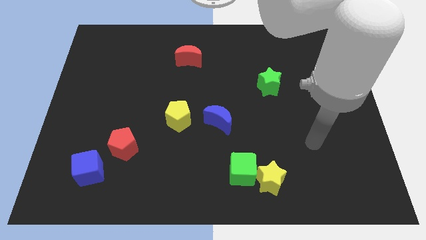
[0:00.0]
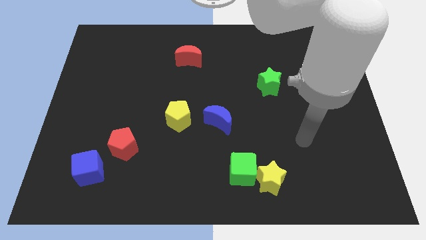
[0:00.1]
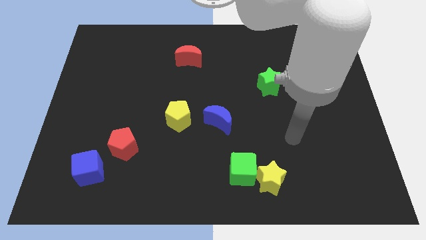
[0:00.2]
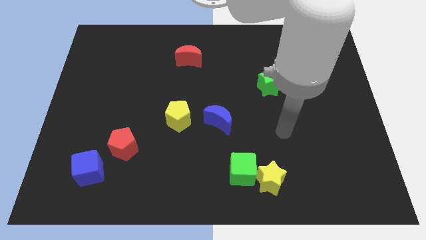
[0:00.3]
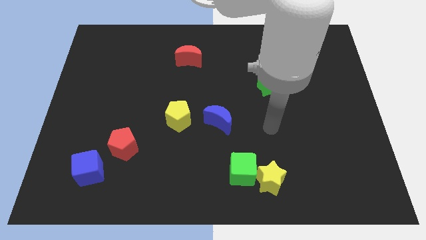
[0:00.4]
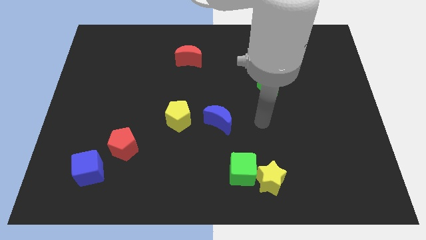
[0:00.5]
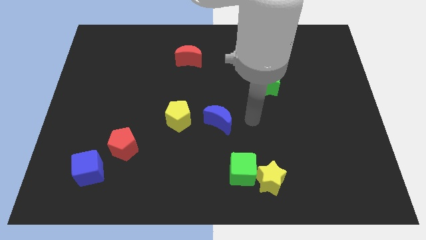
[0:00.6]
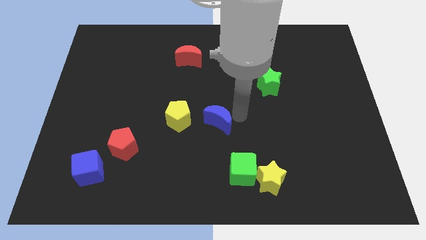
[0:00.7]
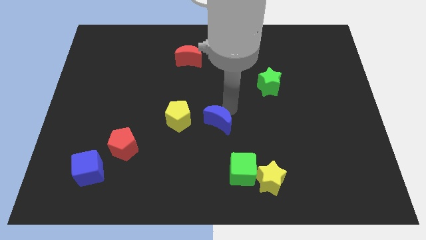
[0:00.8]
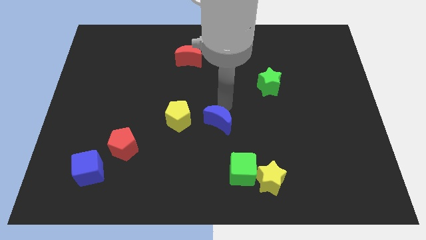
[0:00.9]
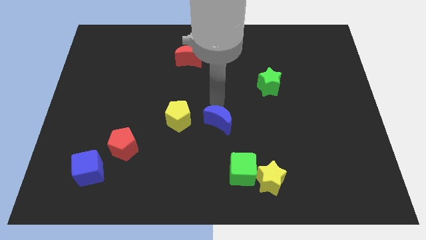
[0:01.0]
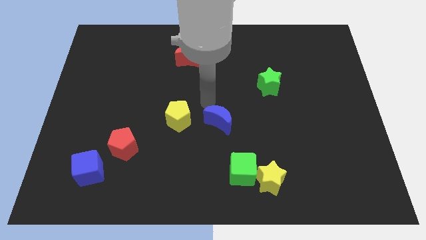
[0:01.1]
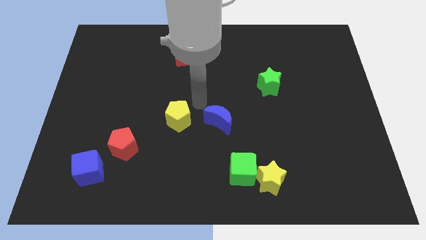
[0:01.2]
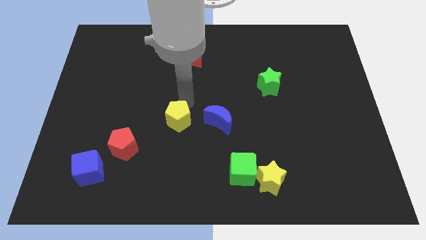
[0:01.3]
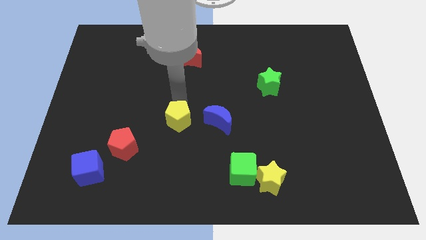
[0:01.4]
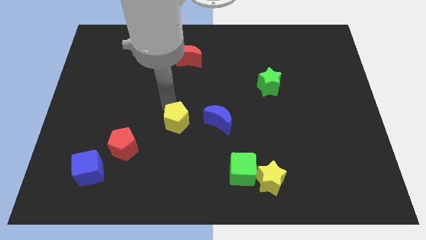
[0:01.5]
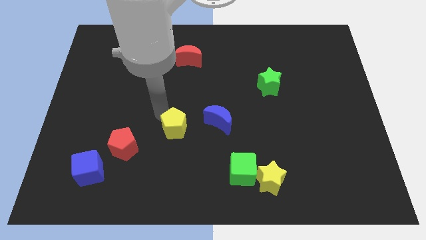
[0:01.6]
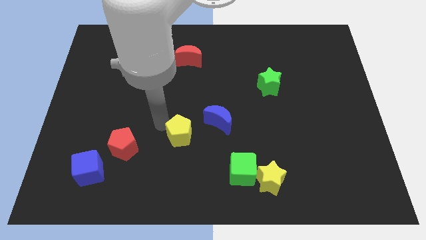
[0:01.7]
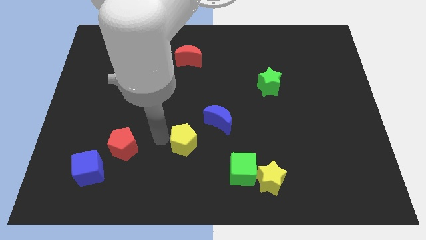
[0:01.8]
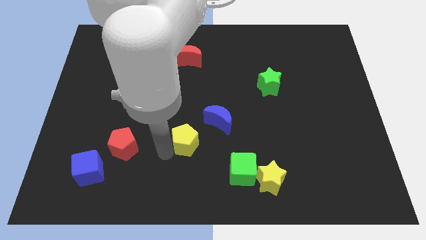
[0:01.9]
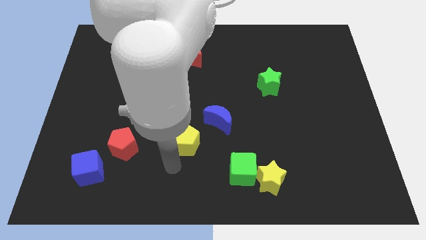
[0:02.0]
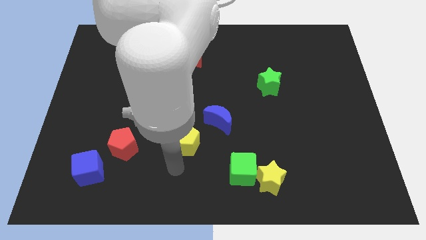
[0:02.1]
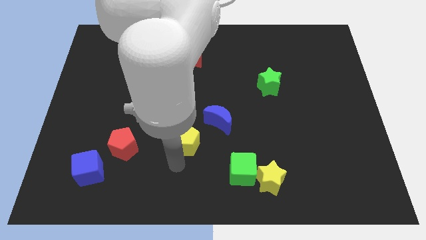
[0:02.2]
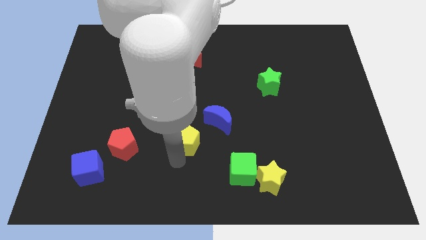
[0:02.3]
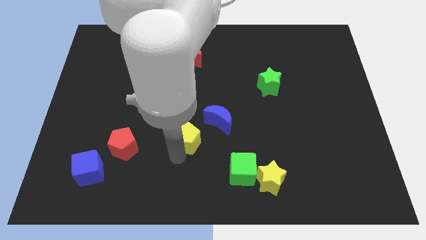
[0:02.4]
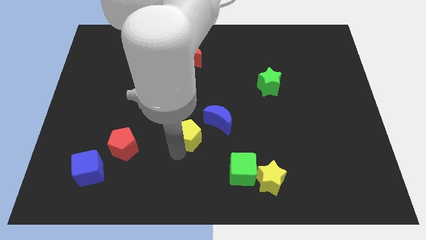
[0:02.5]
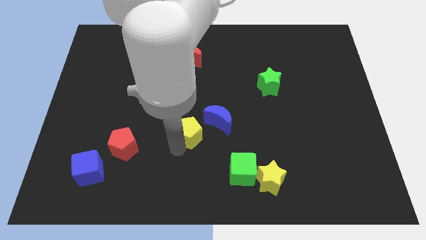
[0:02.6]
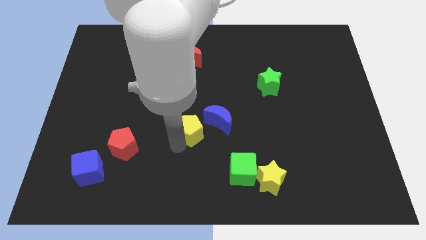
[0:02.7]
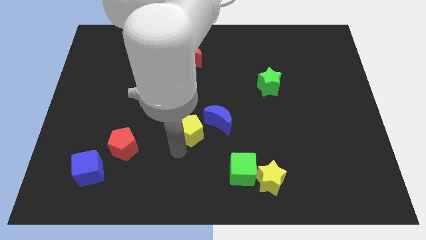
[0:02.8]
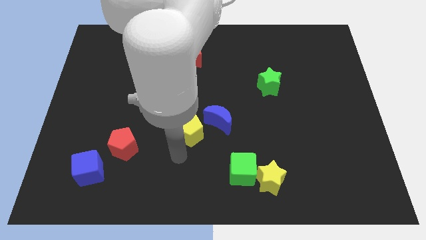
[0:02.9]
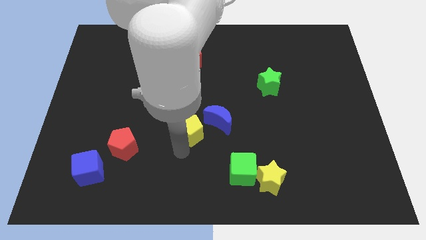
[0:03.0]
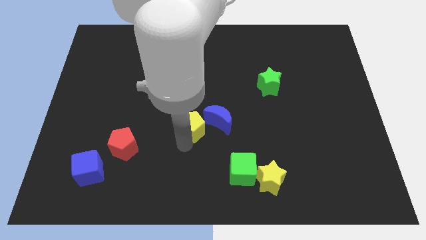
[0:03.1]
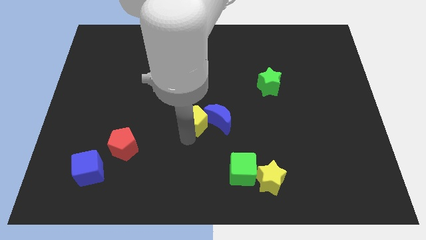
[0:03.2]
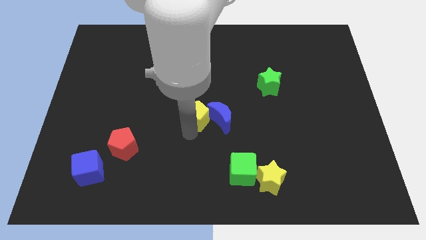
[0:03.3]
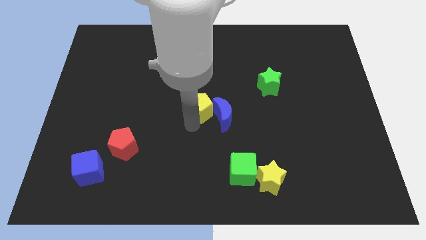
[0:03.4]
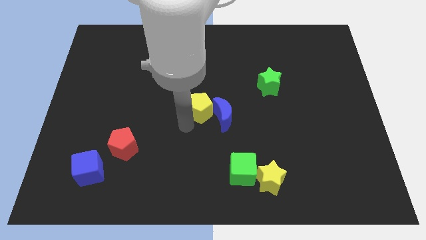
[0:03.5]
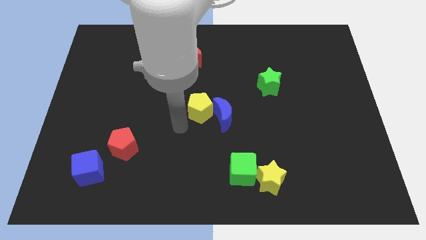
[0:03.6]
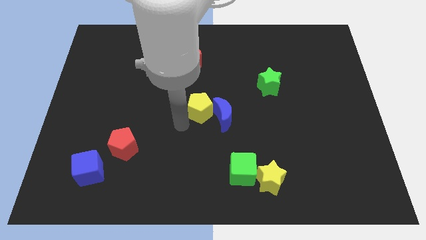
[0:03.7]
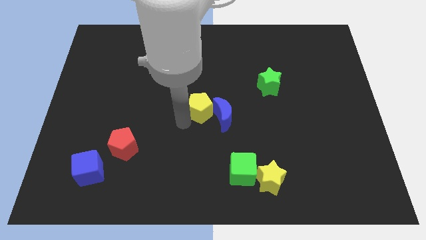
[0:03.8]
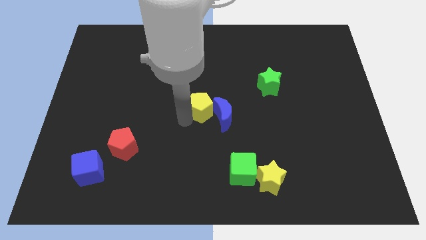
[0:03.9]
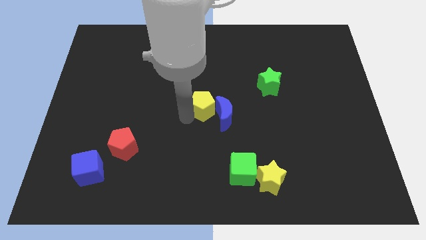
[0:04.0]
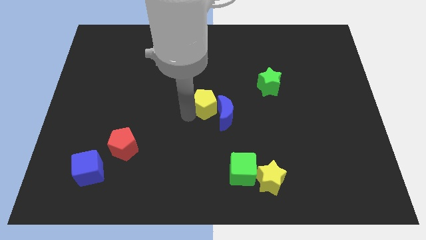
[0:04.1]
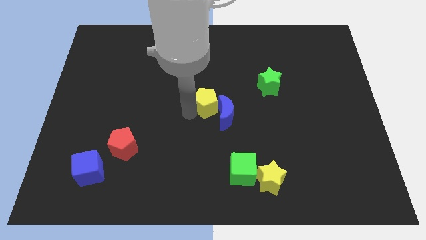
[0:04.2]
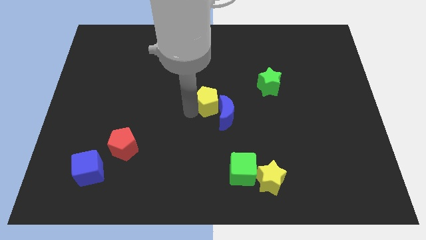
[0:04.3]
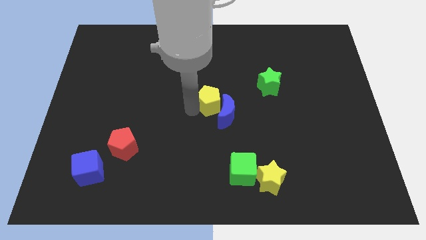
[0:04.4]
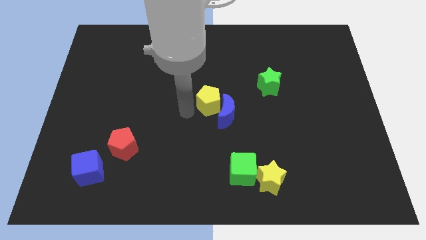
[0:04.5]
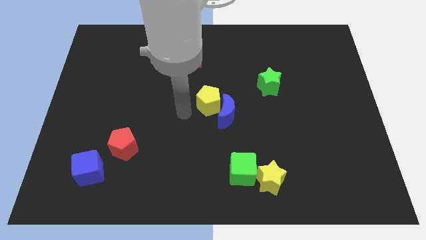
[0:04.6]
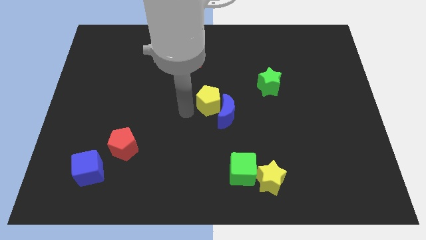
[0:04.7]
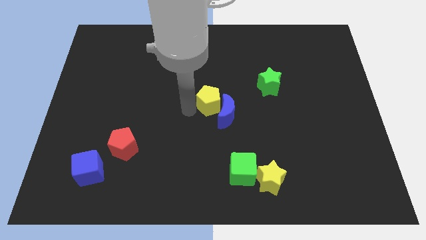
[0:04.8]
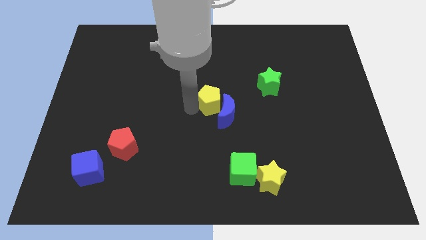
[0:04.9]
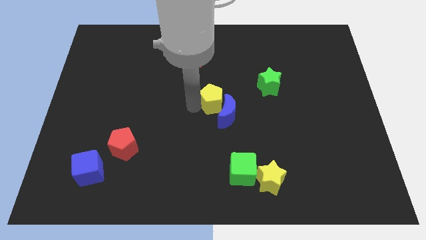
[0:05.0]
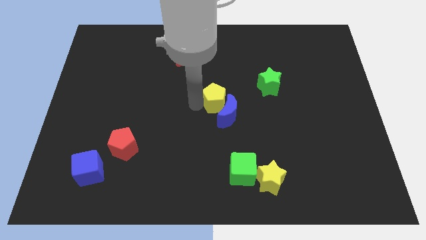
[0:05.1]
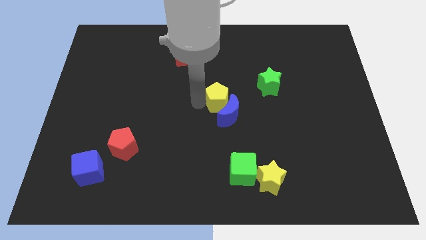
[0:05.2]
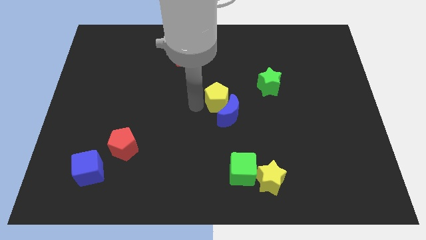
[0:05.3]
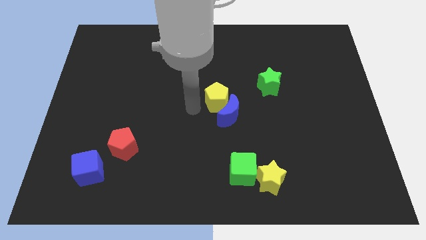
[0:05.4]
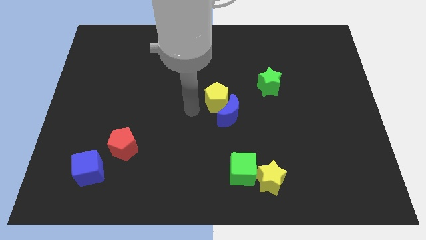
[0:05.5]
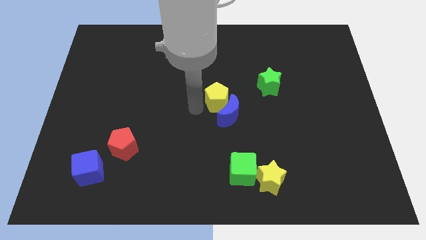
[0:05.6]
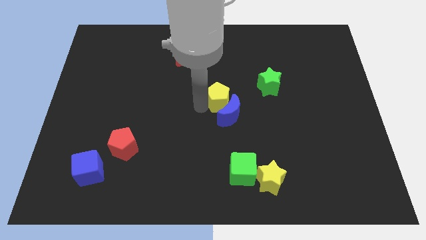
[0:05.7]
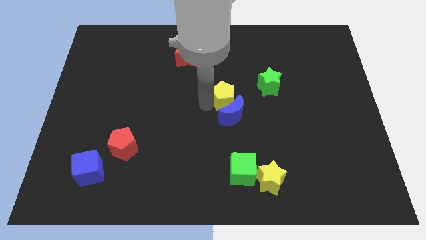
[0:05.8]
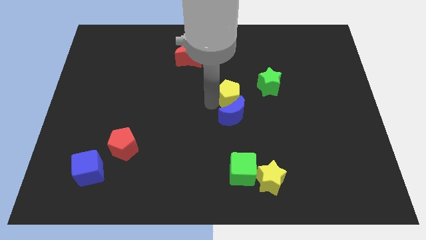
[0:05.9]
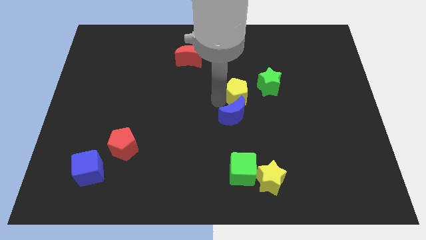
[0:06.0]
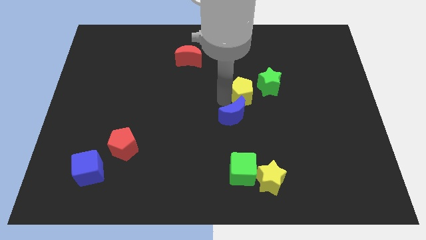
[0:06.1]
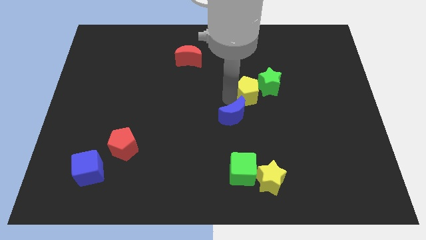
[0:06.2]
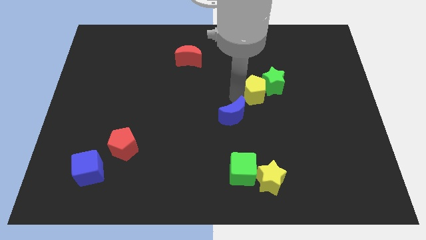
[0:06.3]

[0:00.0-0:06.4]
push the yellow pentagon to the green star
